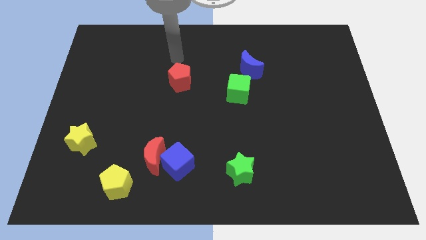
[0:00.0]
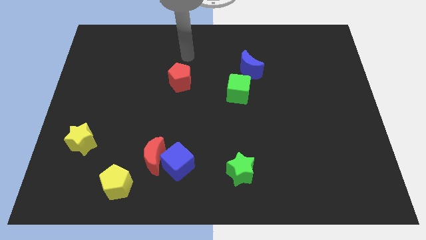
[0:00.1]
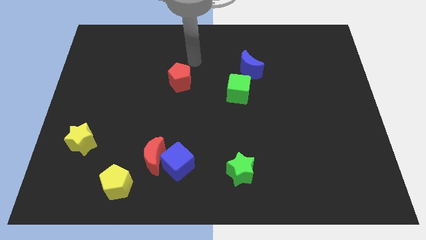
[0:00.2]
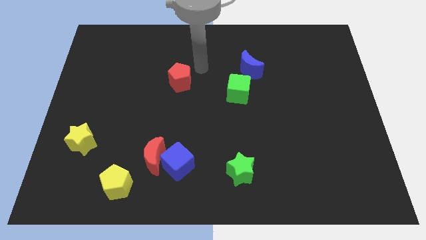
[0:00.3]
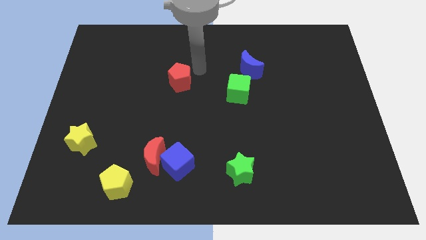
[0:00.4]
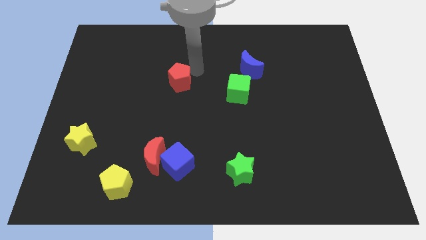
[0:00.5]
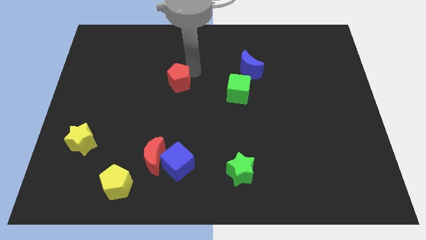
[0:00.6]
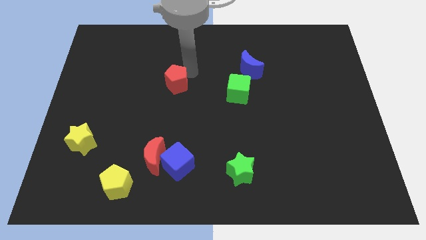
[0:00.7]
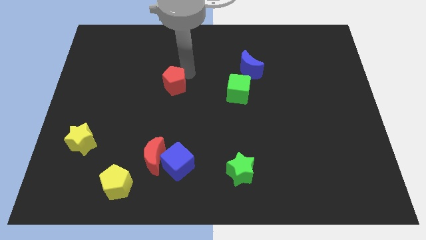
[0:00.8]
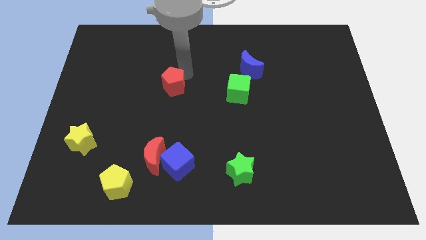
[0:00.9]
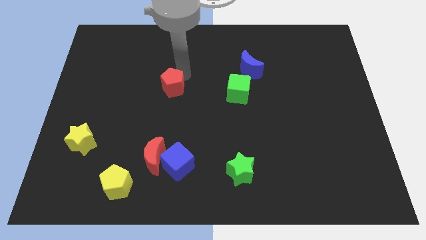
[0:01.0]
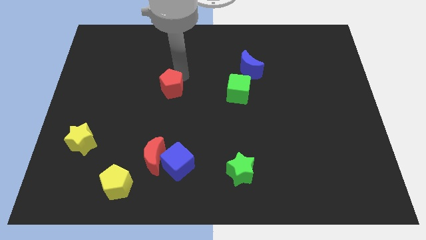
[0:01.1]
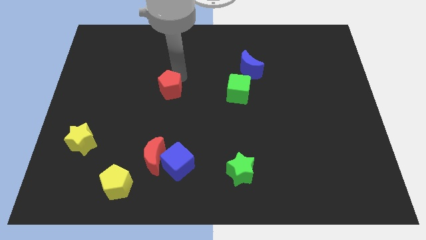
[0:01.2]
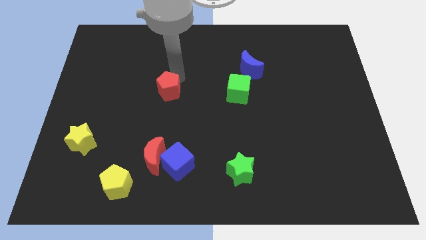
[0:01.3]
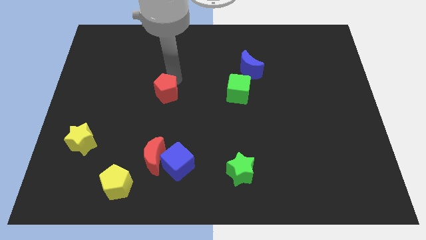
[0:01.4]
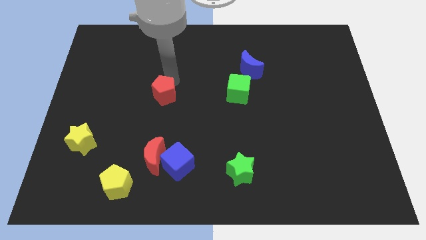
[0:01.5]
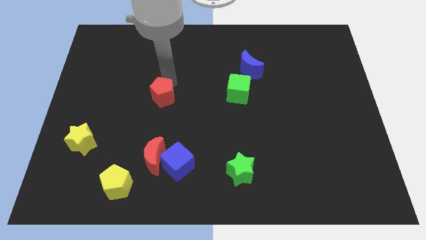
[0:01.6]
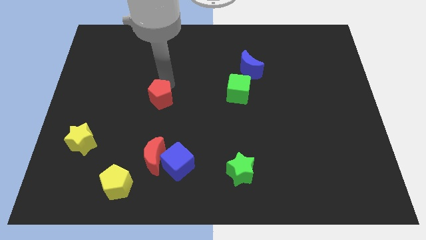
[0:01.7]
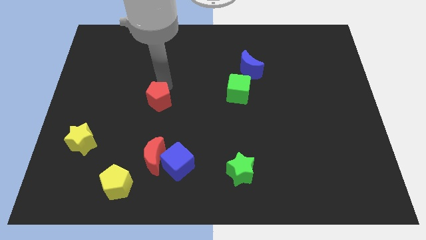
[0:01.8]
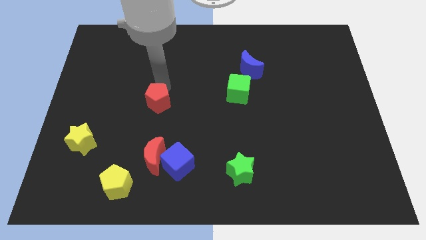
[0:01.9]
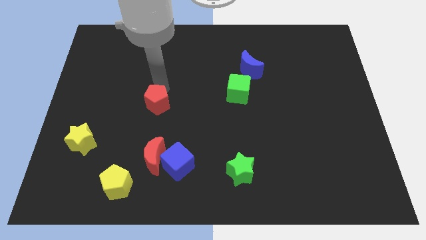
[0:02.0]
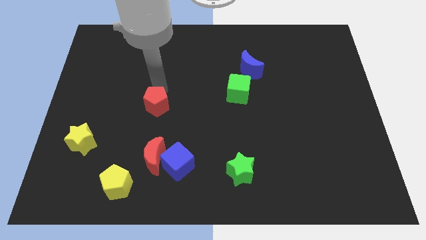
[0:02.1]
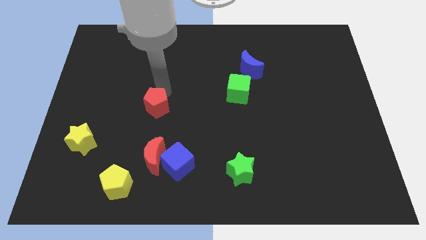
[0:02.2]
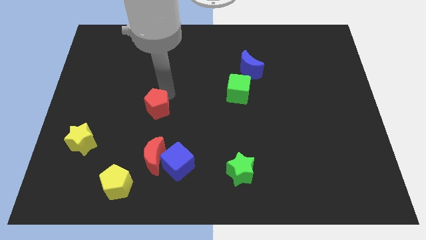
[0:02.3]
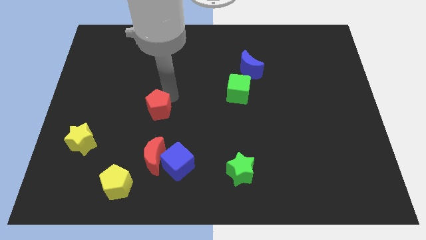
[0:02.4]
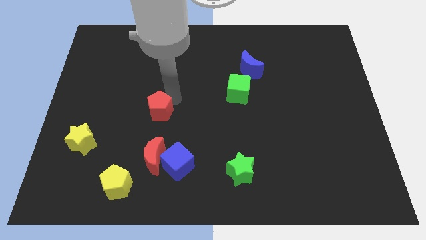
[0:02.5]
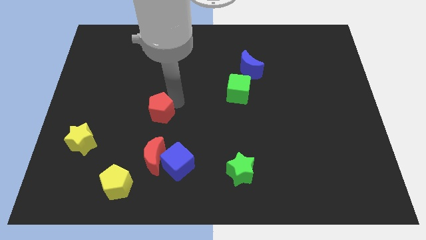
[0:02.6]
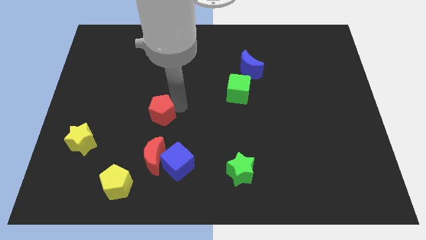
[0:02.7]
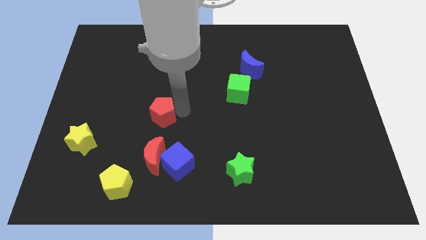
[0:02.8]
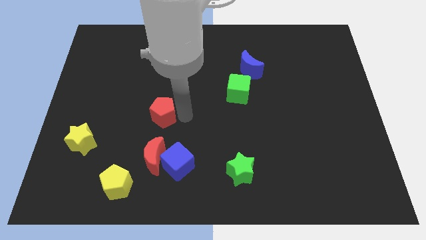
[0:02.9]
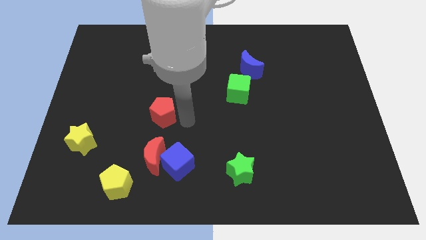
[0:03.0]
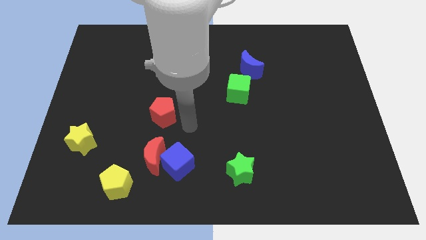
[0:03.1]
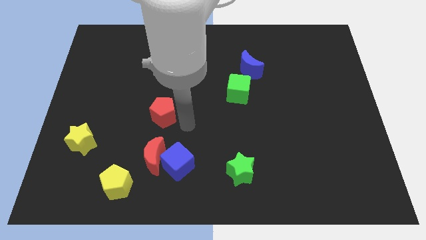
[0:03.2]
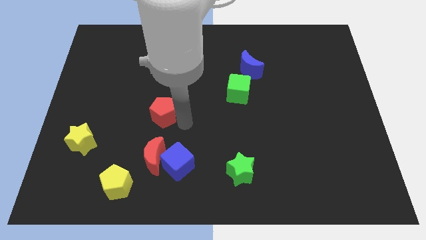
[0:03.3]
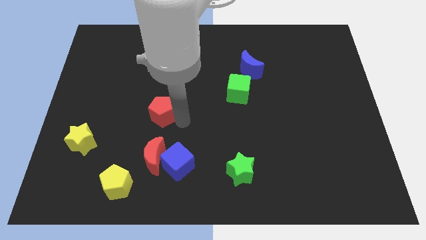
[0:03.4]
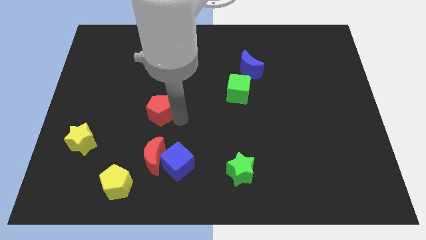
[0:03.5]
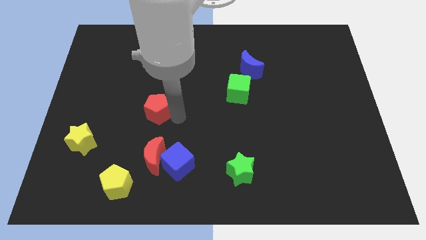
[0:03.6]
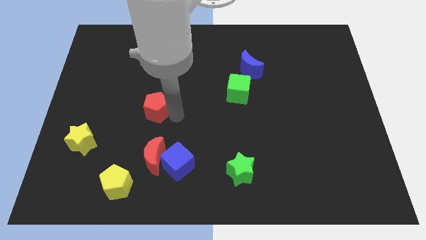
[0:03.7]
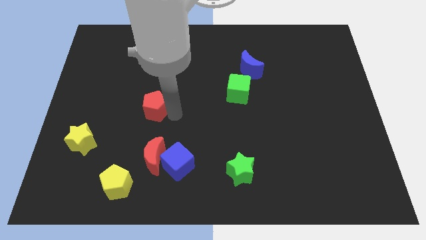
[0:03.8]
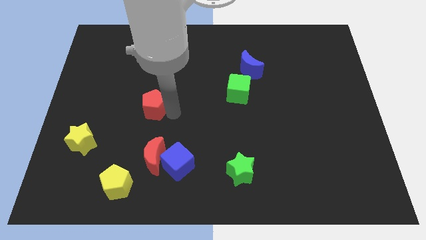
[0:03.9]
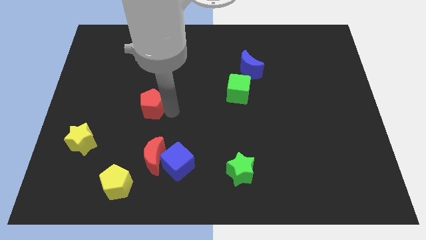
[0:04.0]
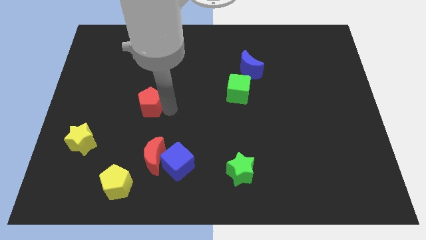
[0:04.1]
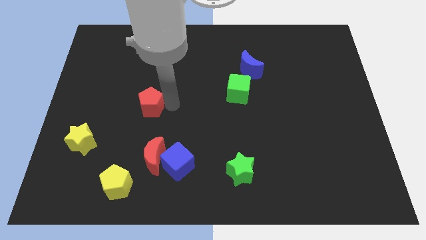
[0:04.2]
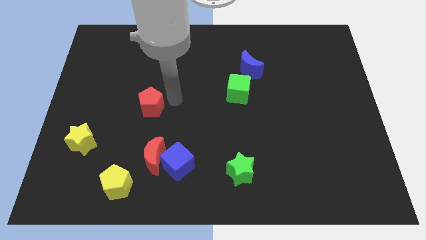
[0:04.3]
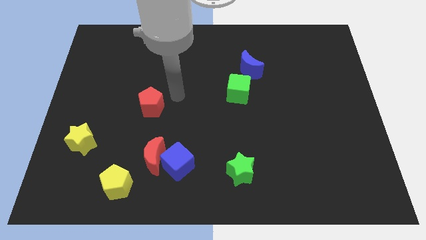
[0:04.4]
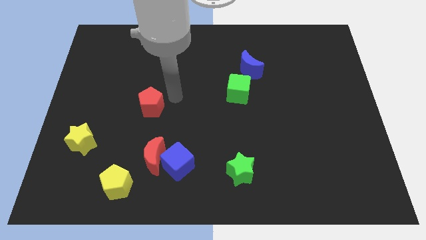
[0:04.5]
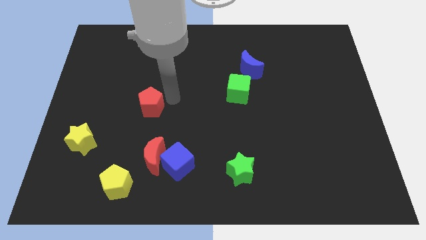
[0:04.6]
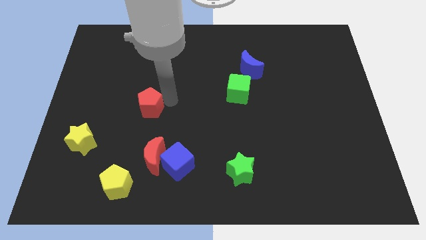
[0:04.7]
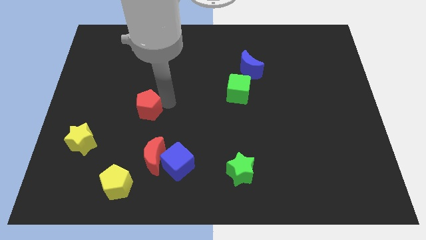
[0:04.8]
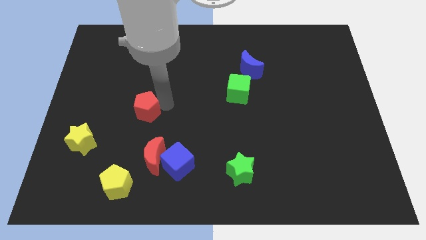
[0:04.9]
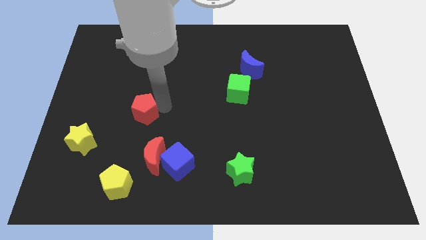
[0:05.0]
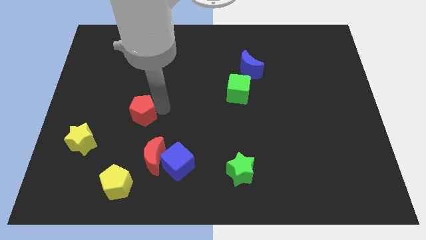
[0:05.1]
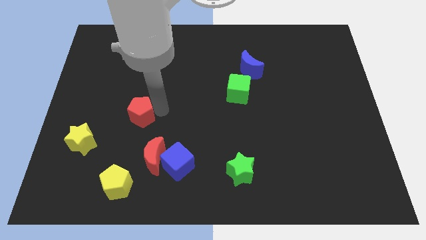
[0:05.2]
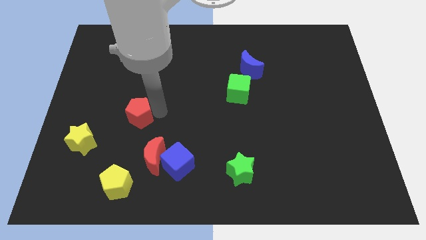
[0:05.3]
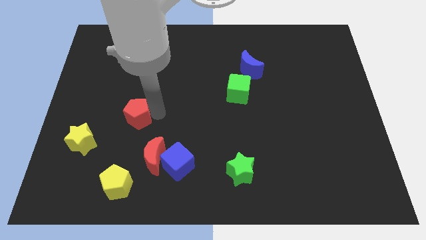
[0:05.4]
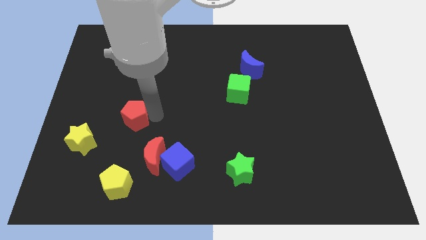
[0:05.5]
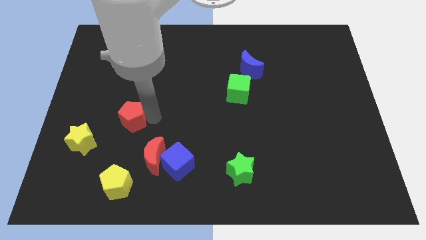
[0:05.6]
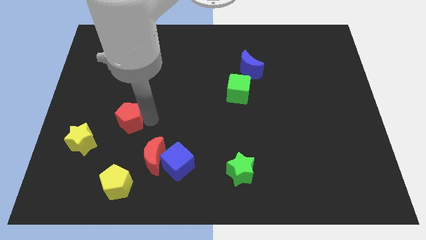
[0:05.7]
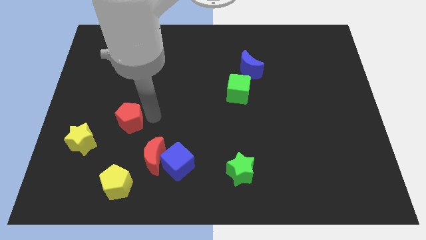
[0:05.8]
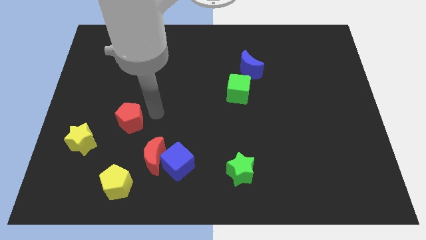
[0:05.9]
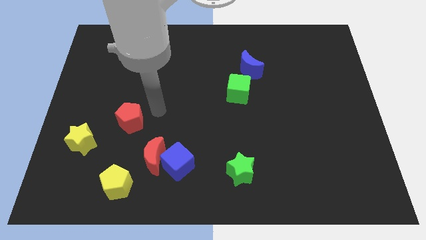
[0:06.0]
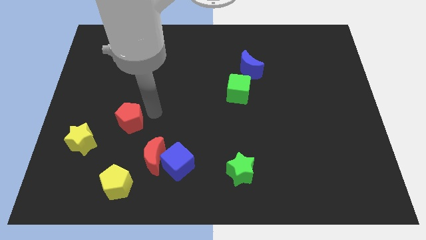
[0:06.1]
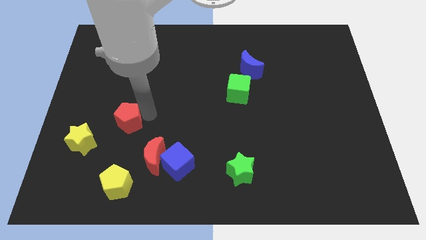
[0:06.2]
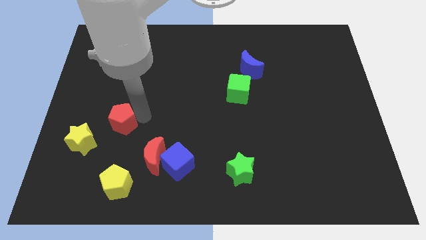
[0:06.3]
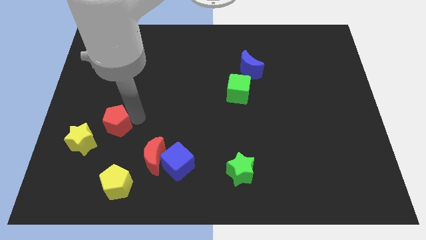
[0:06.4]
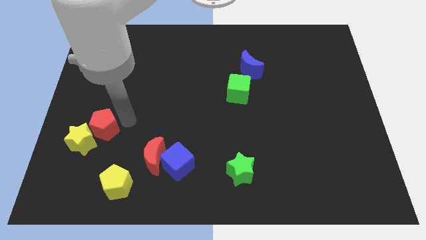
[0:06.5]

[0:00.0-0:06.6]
put the red pentagon next to the yellow star

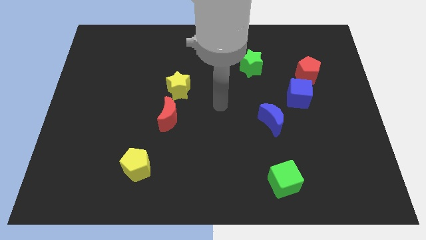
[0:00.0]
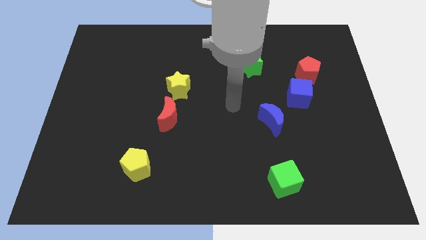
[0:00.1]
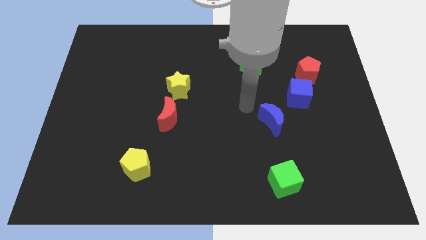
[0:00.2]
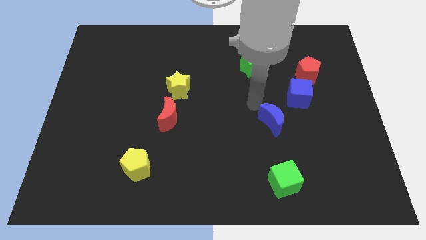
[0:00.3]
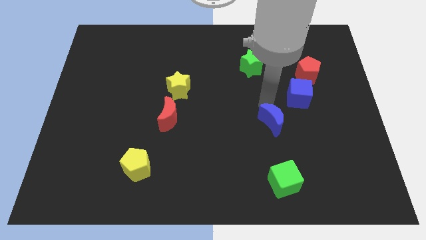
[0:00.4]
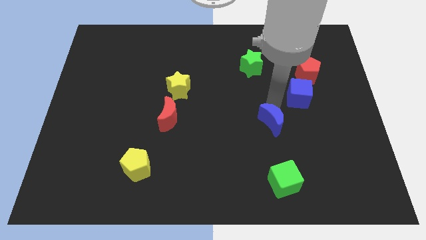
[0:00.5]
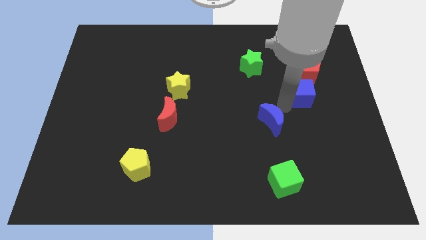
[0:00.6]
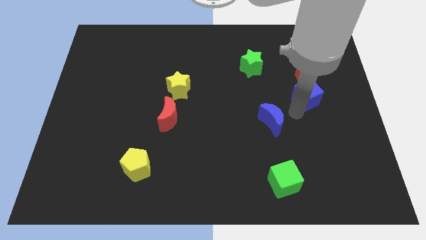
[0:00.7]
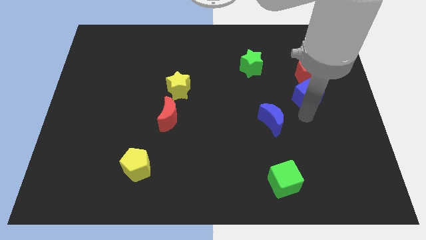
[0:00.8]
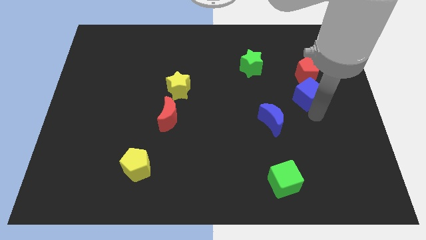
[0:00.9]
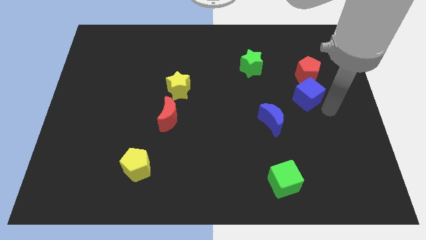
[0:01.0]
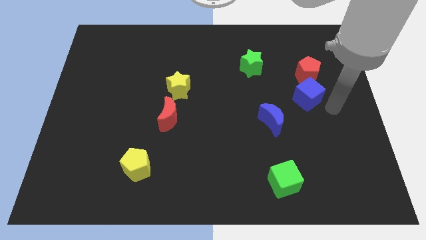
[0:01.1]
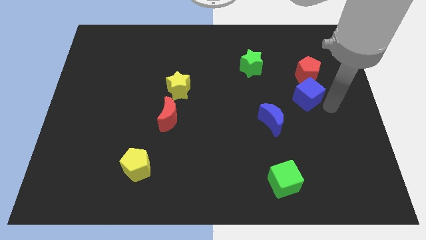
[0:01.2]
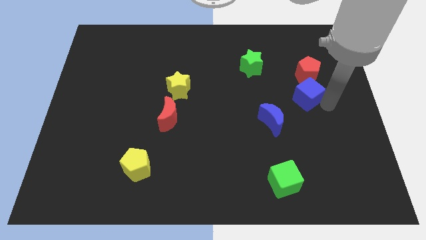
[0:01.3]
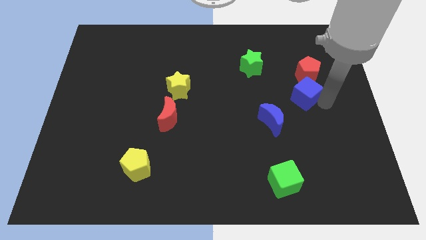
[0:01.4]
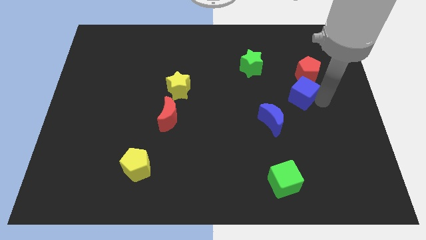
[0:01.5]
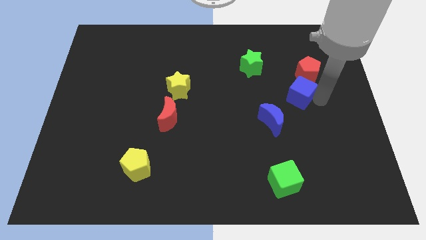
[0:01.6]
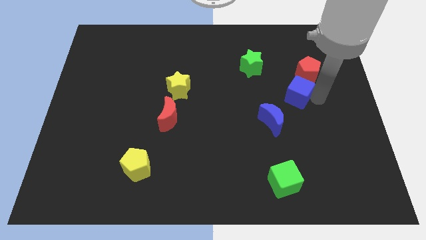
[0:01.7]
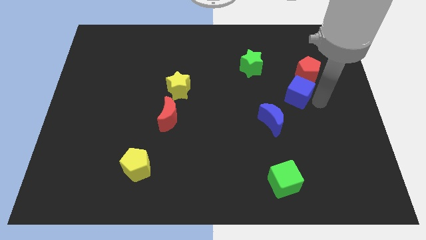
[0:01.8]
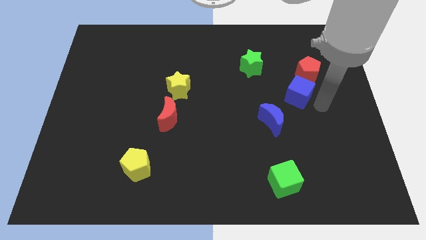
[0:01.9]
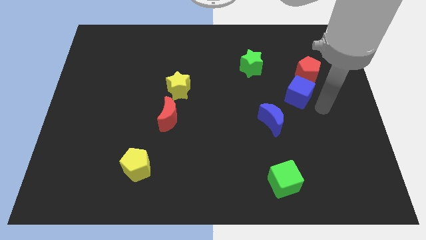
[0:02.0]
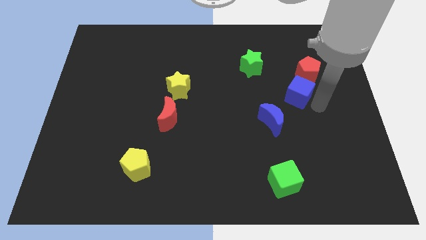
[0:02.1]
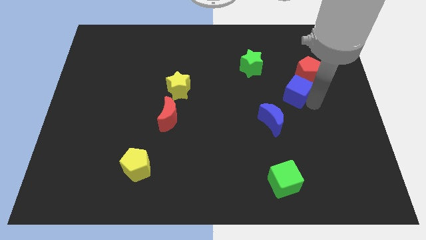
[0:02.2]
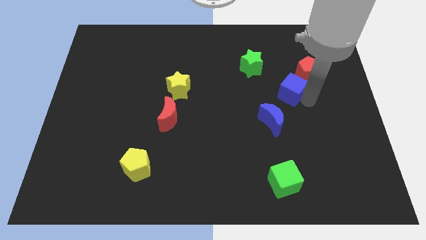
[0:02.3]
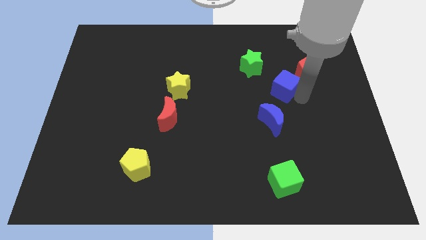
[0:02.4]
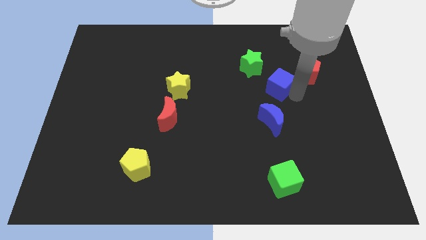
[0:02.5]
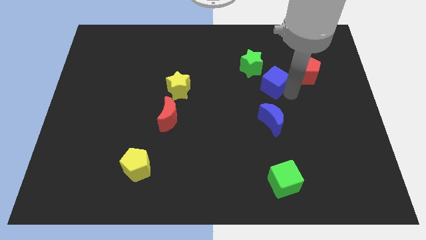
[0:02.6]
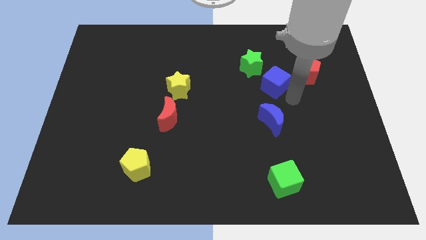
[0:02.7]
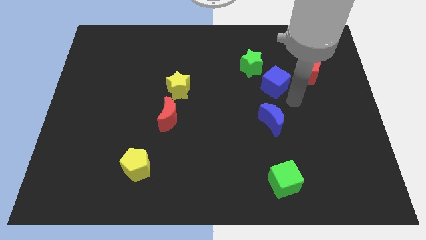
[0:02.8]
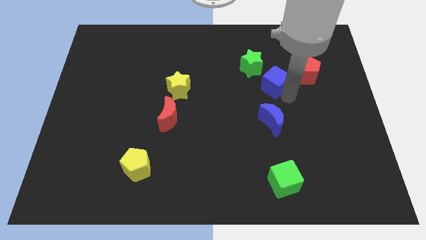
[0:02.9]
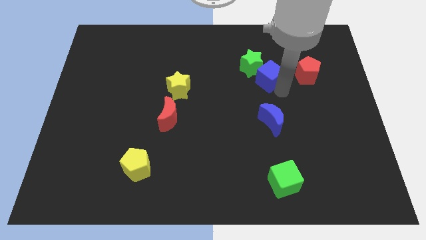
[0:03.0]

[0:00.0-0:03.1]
push the blue cube to the green star
